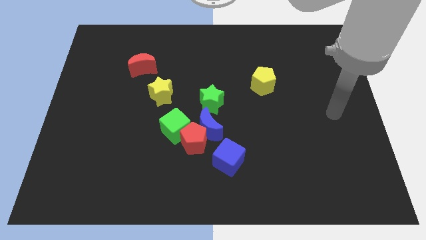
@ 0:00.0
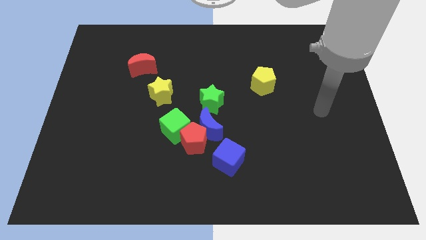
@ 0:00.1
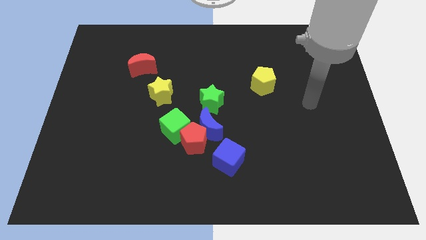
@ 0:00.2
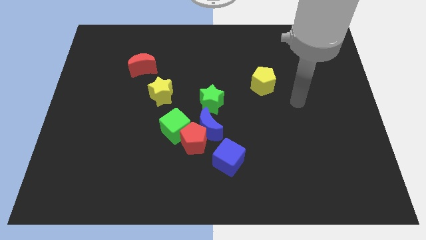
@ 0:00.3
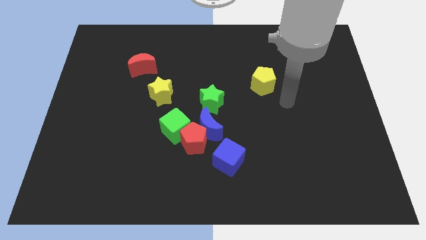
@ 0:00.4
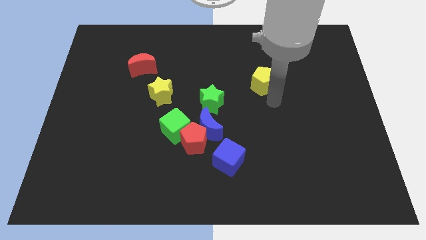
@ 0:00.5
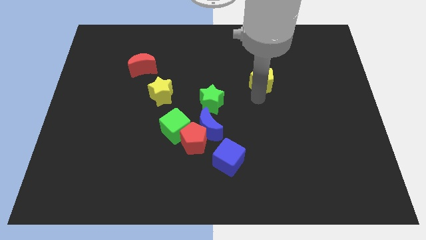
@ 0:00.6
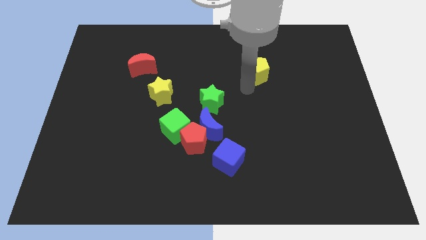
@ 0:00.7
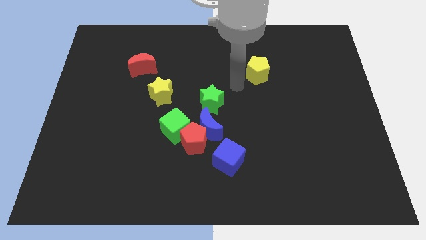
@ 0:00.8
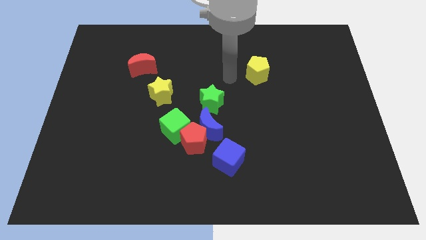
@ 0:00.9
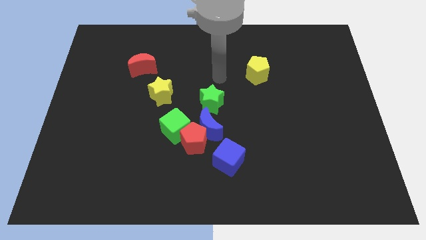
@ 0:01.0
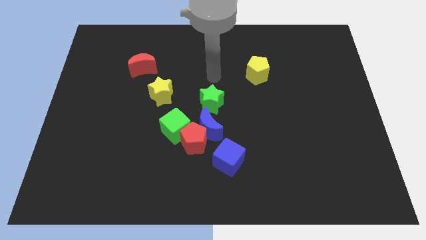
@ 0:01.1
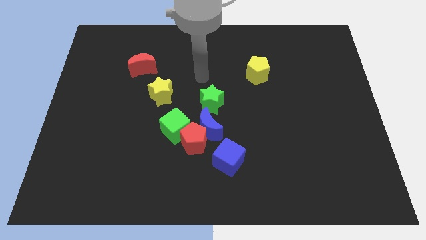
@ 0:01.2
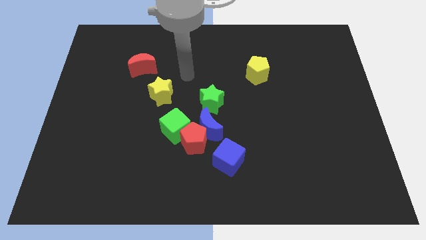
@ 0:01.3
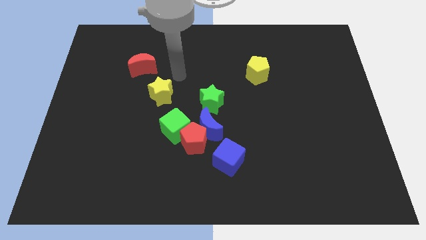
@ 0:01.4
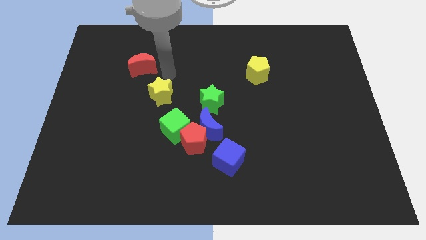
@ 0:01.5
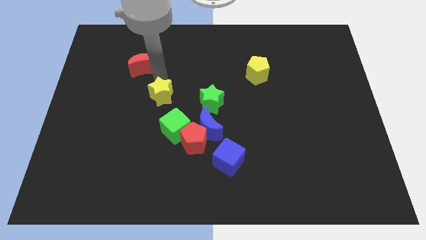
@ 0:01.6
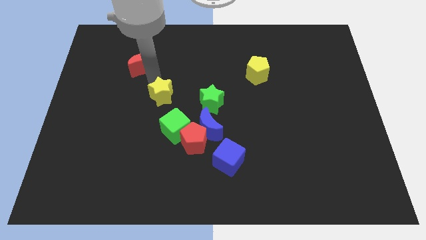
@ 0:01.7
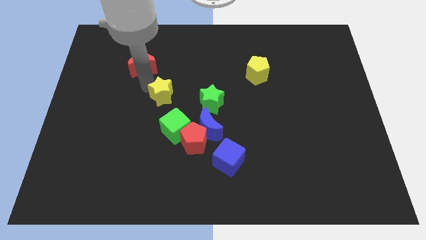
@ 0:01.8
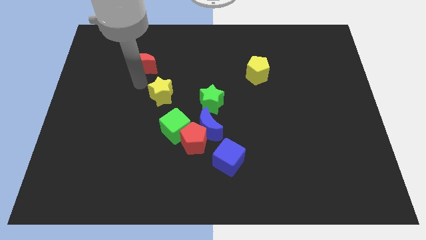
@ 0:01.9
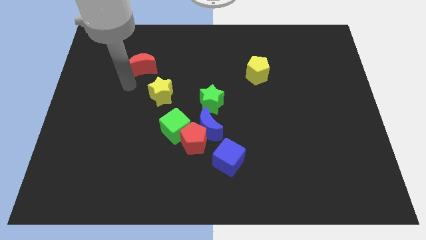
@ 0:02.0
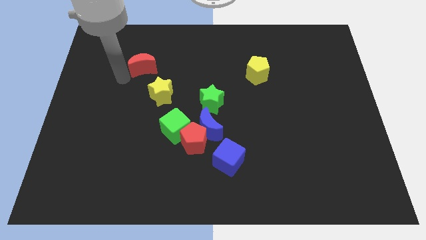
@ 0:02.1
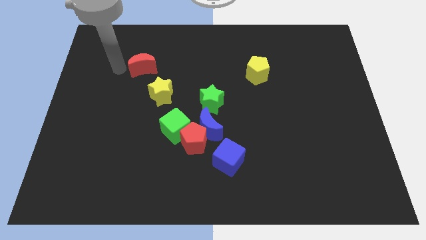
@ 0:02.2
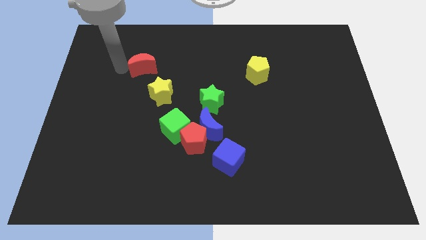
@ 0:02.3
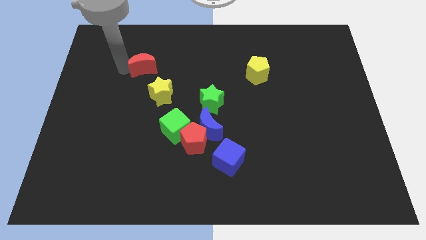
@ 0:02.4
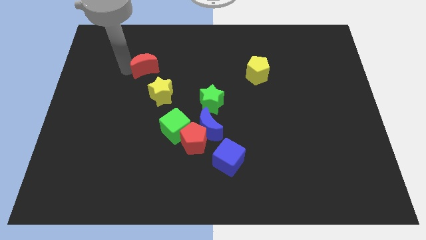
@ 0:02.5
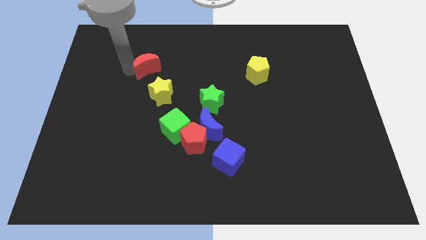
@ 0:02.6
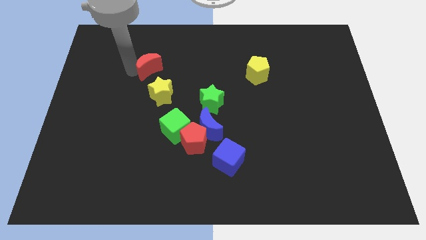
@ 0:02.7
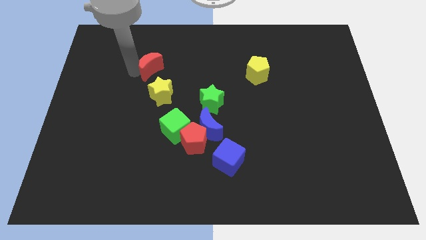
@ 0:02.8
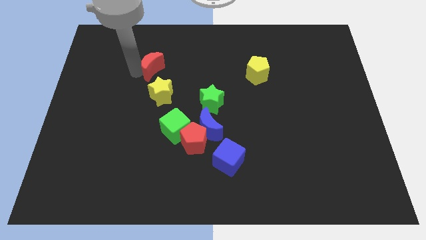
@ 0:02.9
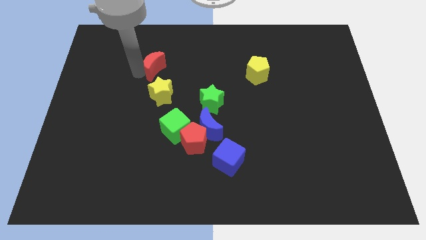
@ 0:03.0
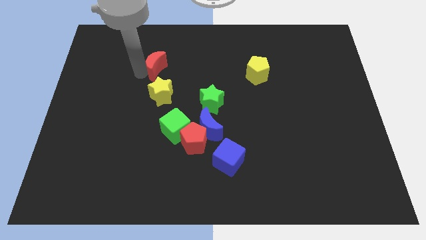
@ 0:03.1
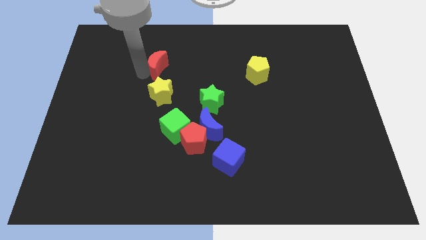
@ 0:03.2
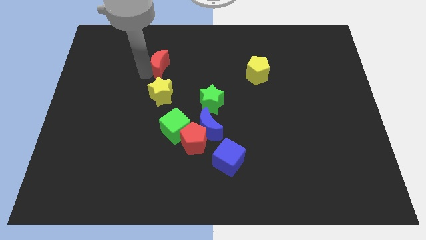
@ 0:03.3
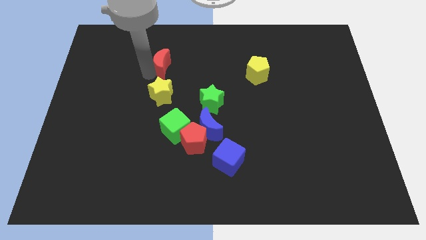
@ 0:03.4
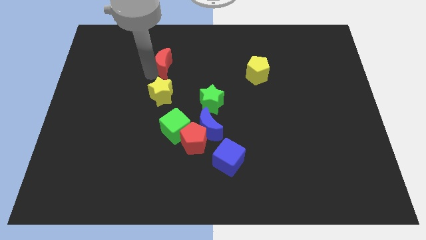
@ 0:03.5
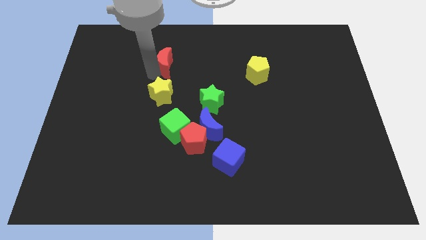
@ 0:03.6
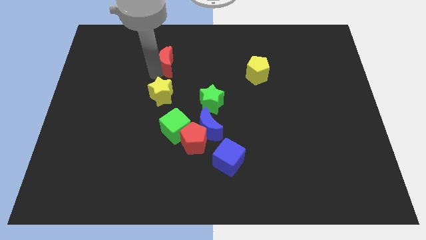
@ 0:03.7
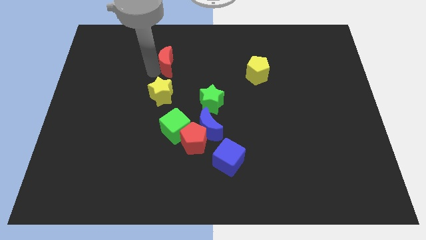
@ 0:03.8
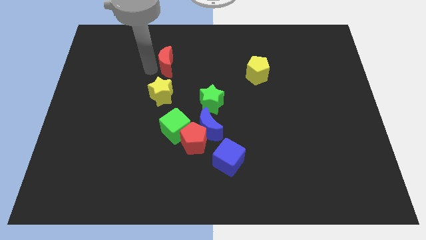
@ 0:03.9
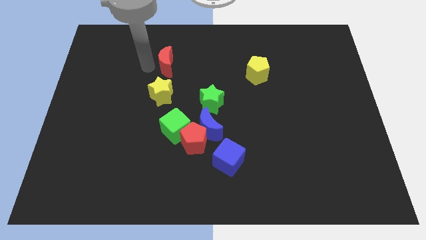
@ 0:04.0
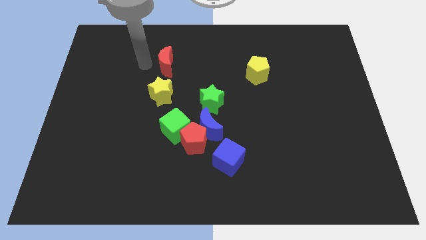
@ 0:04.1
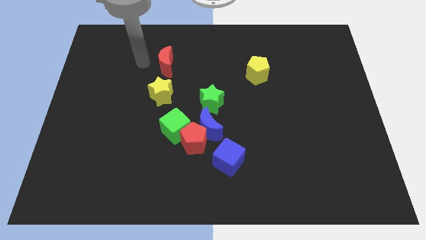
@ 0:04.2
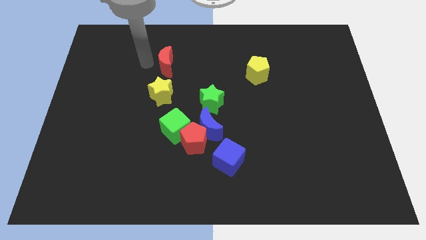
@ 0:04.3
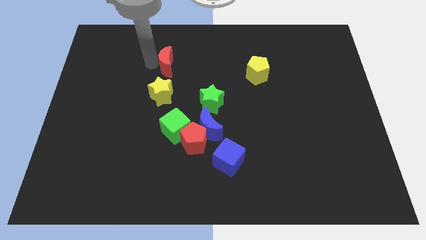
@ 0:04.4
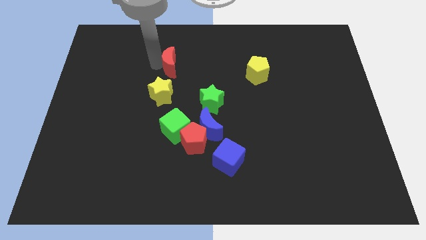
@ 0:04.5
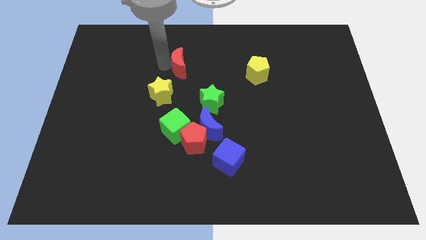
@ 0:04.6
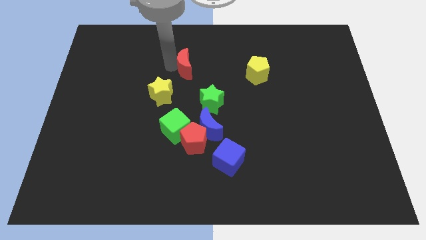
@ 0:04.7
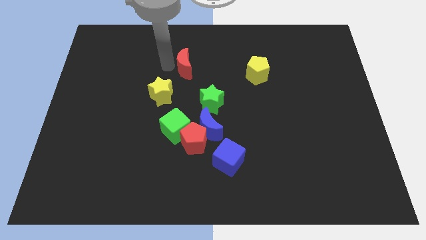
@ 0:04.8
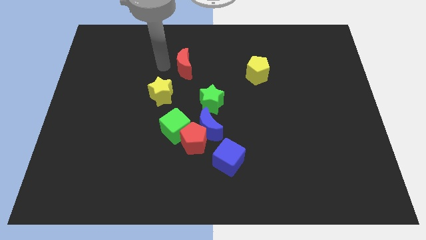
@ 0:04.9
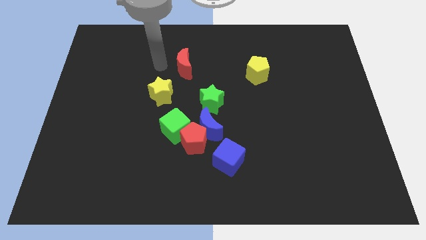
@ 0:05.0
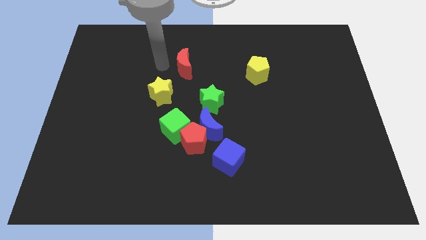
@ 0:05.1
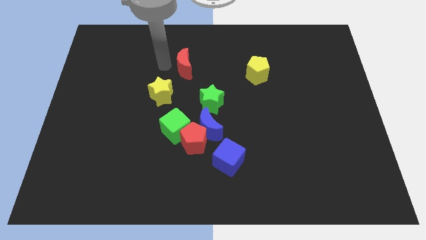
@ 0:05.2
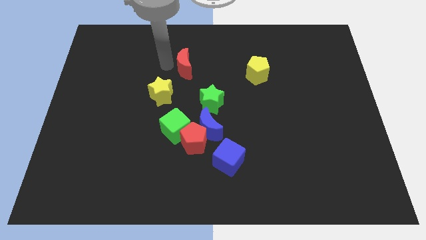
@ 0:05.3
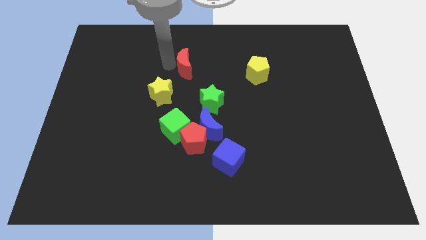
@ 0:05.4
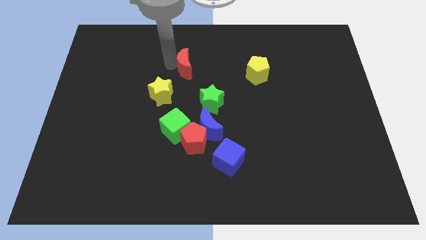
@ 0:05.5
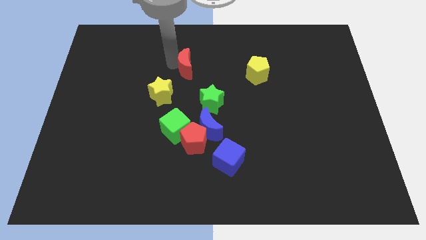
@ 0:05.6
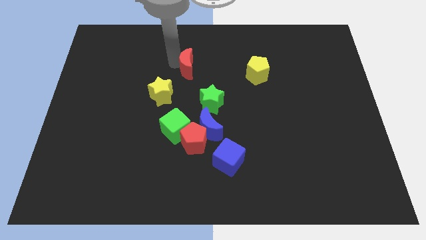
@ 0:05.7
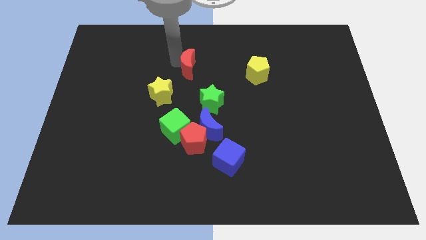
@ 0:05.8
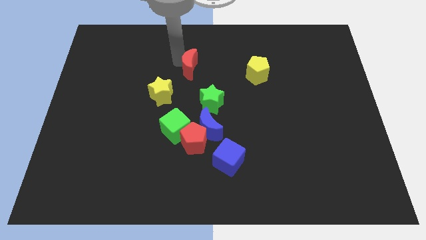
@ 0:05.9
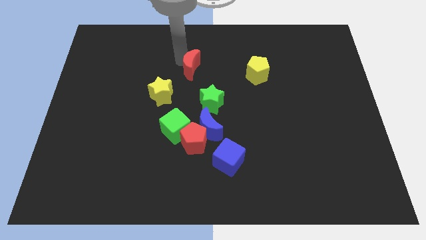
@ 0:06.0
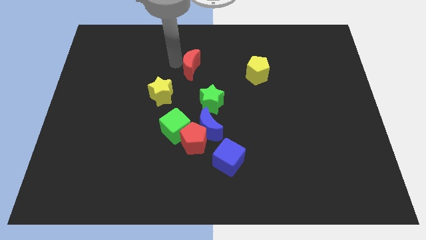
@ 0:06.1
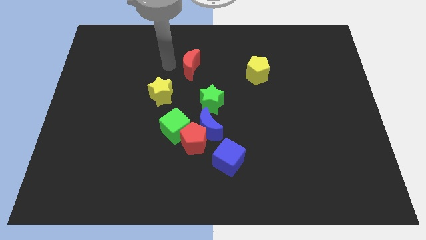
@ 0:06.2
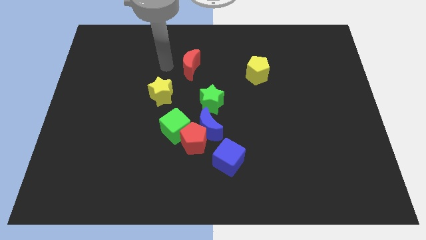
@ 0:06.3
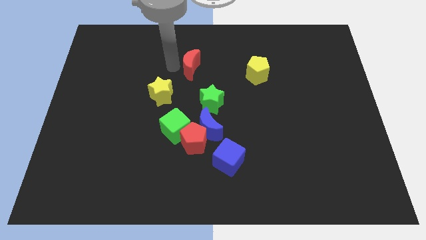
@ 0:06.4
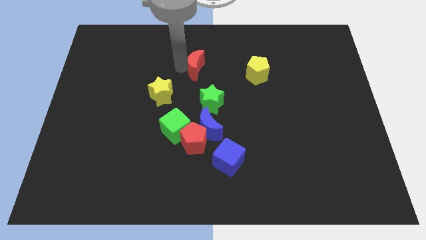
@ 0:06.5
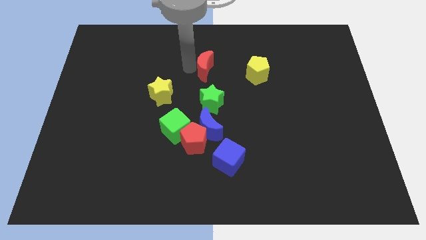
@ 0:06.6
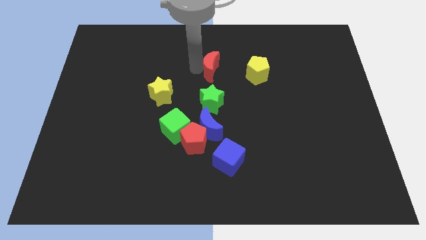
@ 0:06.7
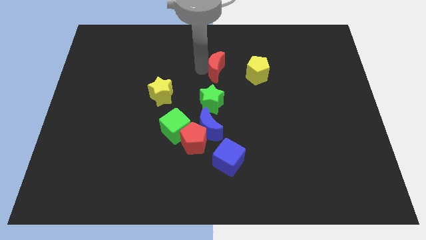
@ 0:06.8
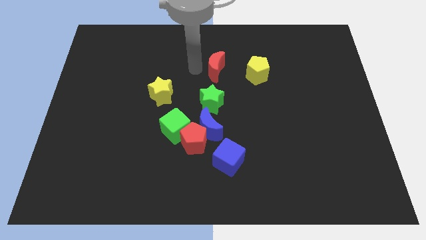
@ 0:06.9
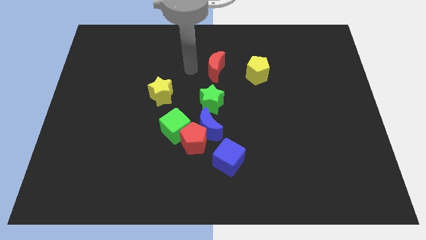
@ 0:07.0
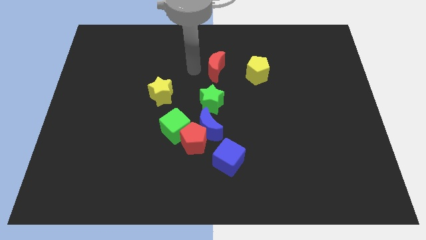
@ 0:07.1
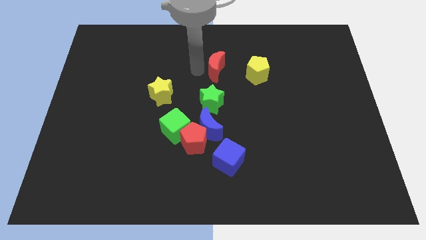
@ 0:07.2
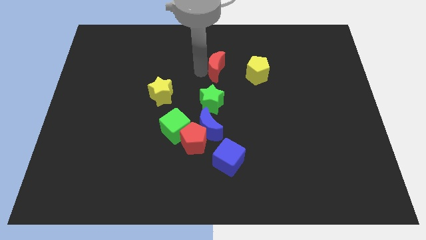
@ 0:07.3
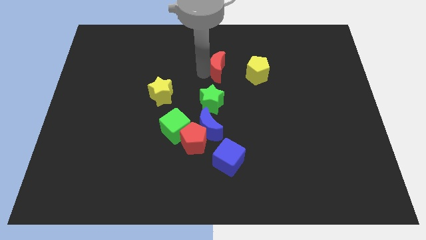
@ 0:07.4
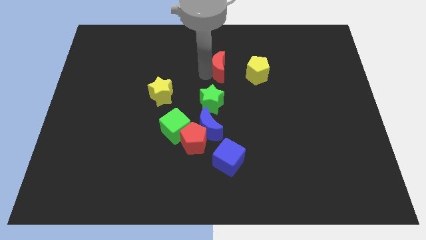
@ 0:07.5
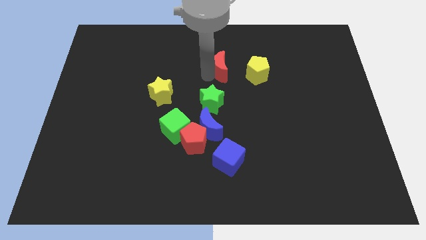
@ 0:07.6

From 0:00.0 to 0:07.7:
push the red moon to the right

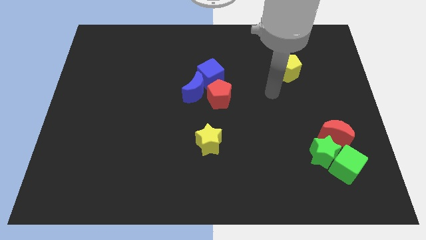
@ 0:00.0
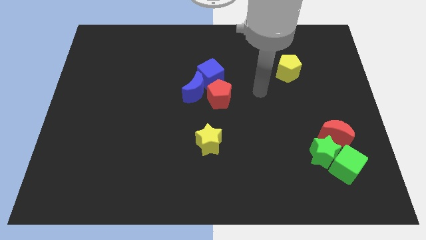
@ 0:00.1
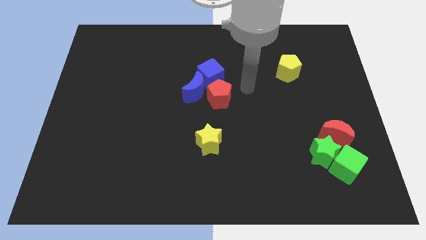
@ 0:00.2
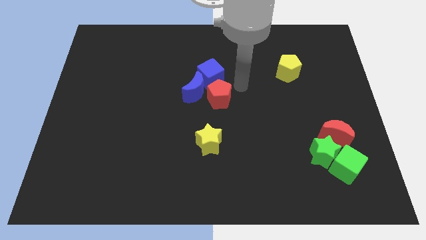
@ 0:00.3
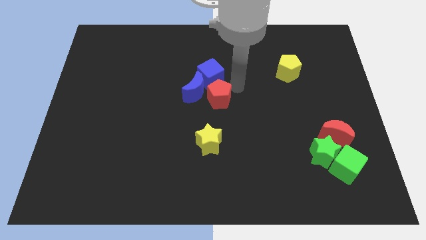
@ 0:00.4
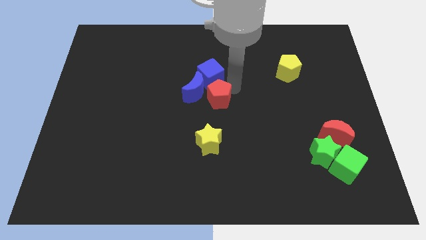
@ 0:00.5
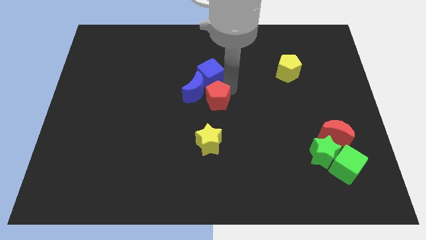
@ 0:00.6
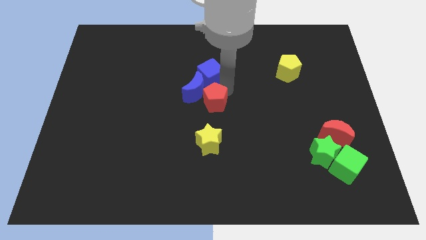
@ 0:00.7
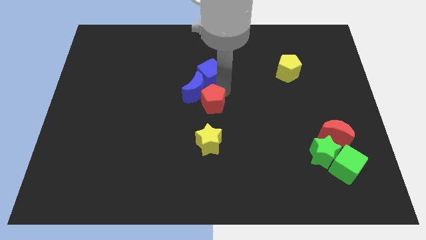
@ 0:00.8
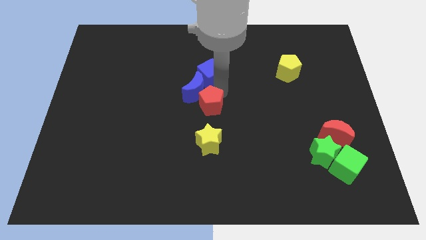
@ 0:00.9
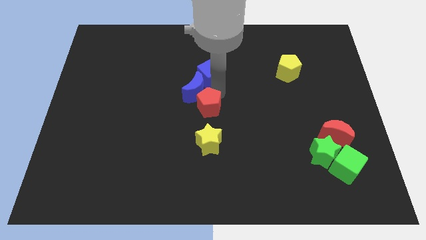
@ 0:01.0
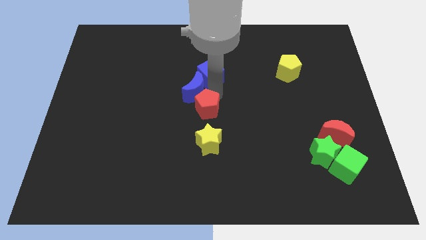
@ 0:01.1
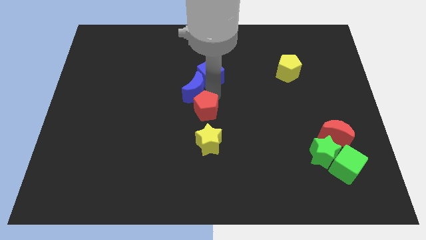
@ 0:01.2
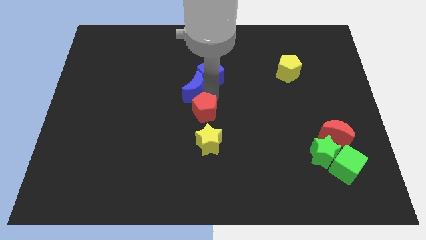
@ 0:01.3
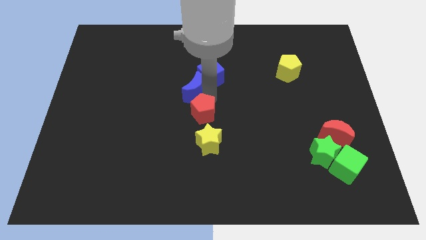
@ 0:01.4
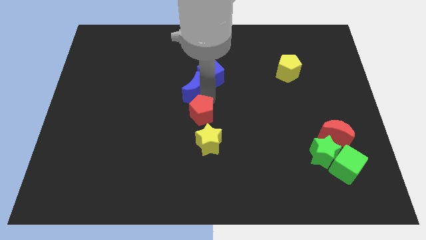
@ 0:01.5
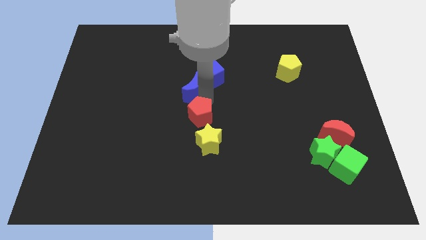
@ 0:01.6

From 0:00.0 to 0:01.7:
slightly push the red pentagon down and left diagonally
